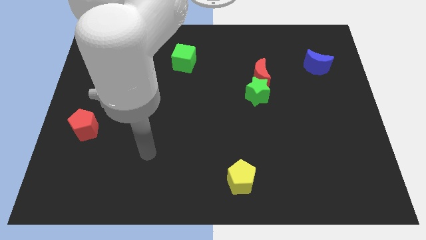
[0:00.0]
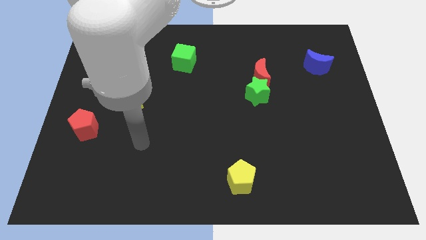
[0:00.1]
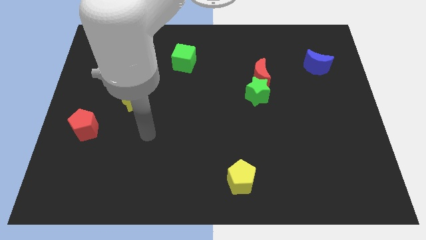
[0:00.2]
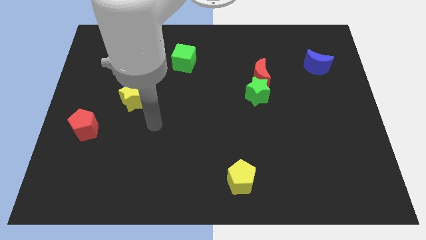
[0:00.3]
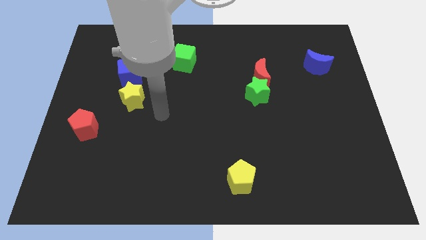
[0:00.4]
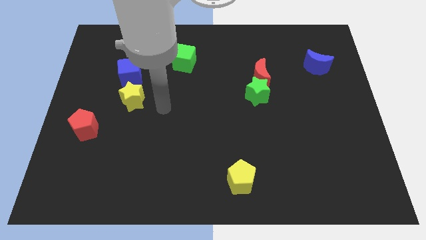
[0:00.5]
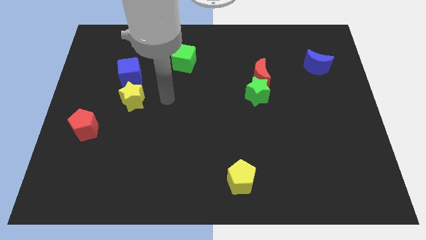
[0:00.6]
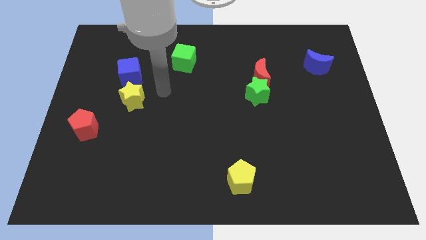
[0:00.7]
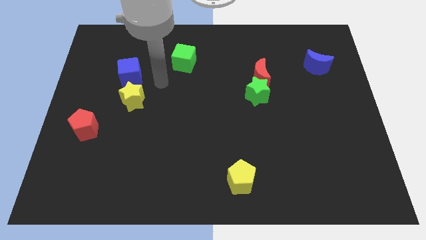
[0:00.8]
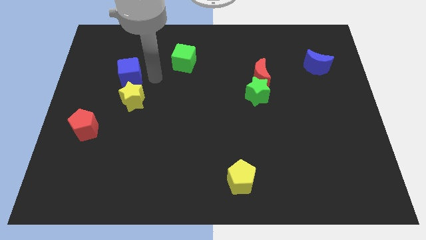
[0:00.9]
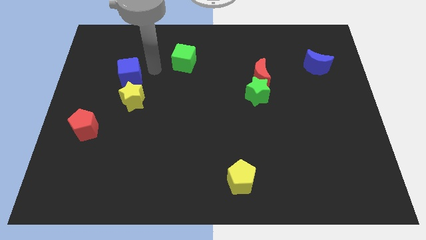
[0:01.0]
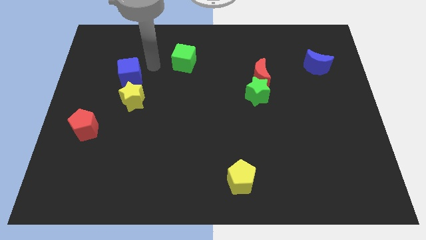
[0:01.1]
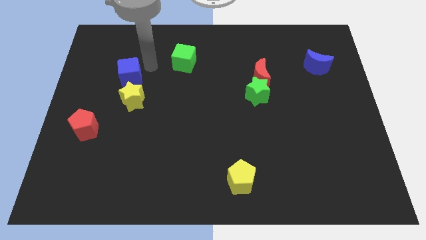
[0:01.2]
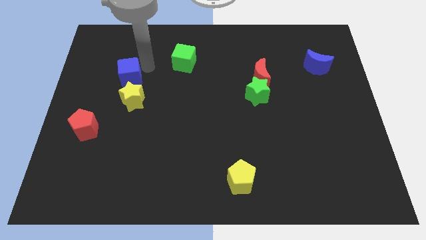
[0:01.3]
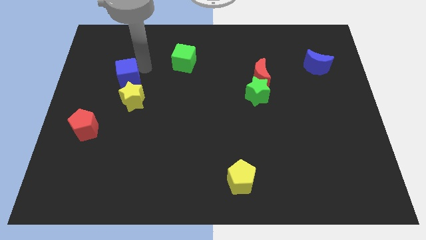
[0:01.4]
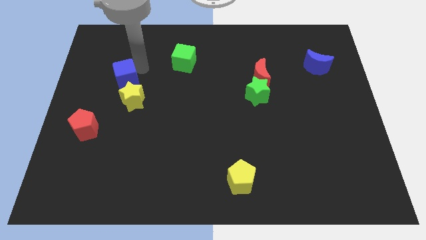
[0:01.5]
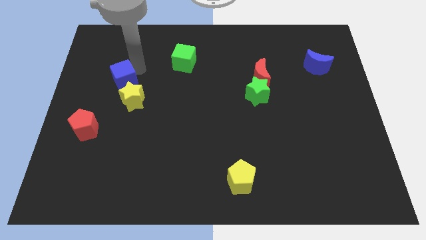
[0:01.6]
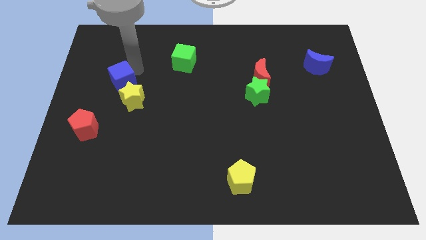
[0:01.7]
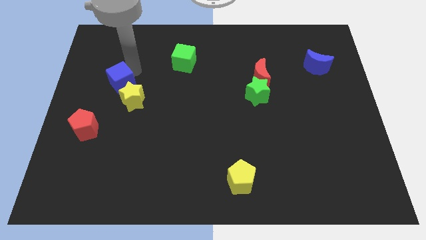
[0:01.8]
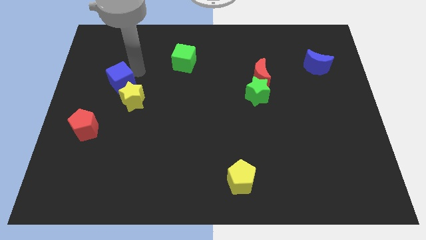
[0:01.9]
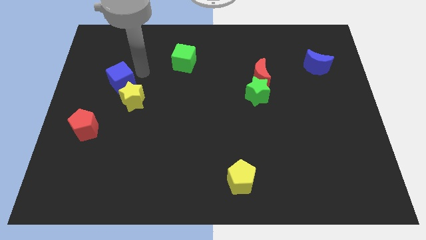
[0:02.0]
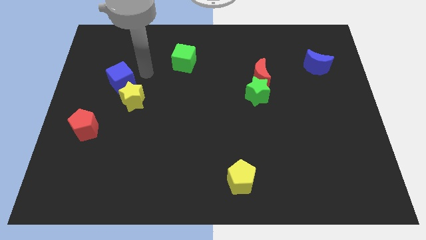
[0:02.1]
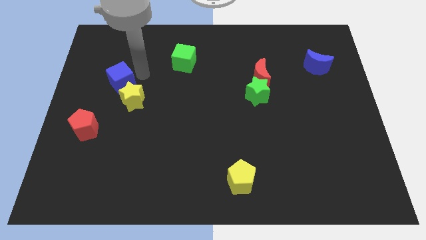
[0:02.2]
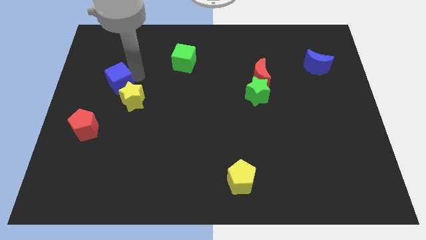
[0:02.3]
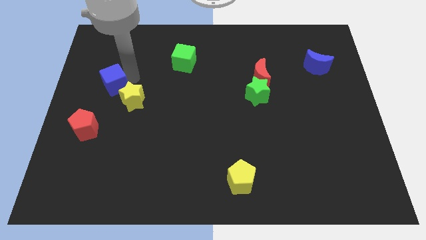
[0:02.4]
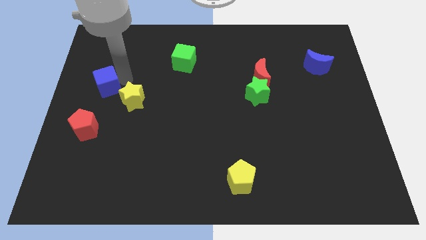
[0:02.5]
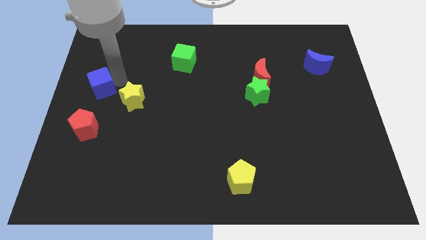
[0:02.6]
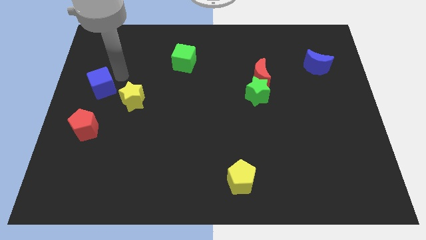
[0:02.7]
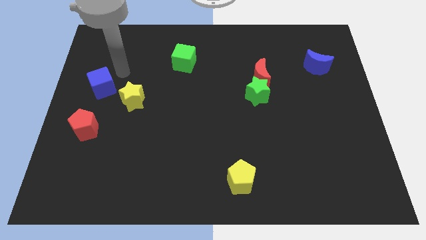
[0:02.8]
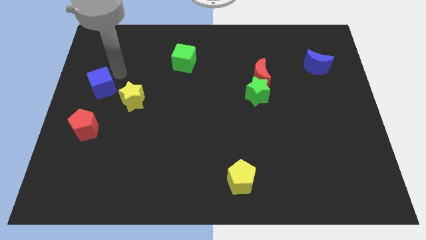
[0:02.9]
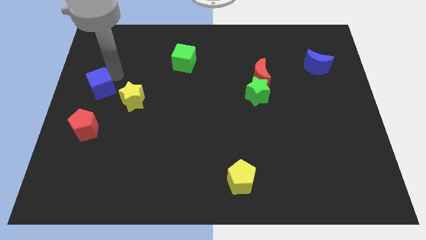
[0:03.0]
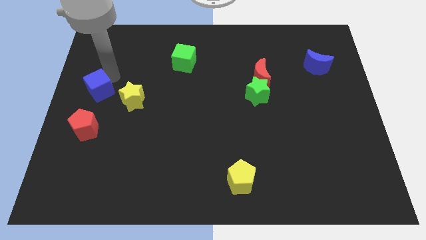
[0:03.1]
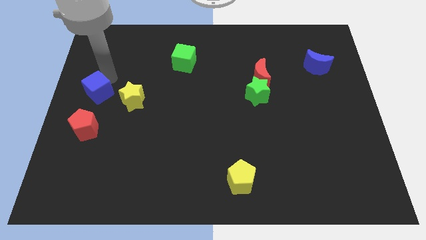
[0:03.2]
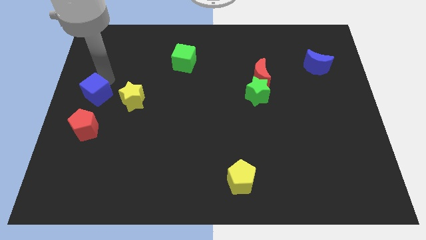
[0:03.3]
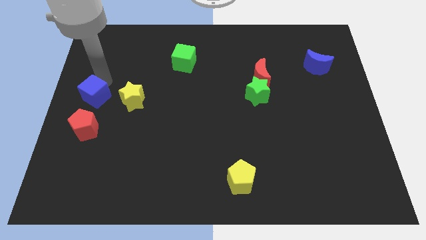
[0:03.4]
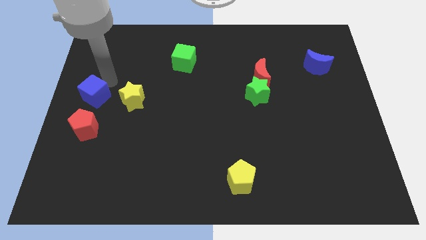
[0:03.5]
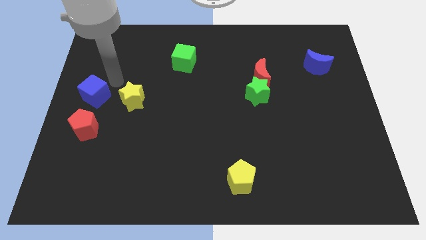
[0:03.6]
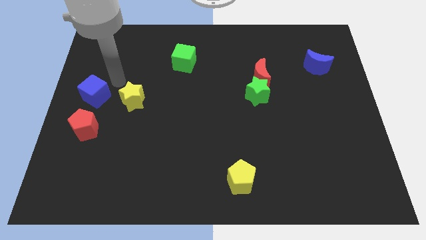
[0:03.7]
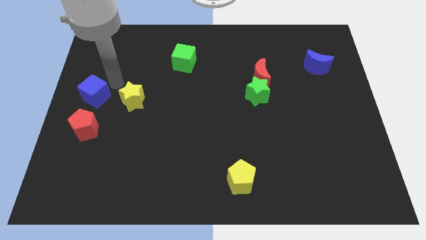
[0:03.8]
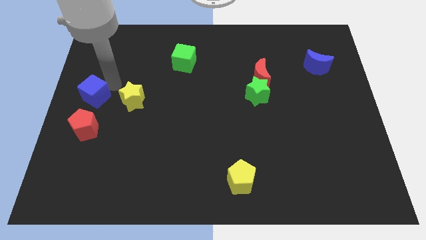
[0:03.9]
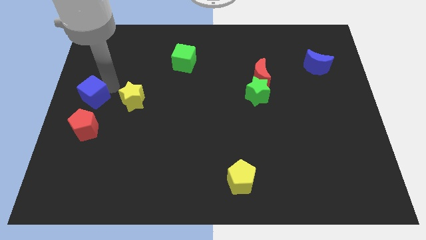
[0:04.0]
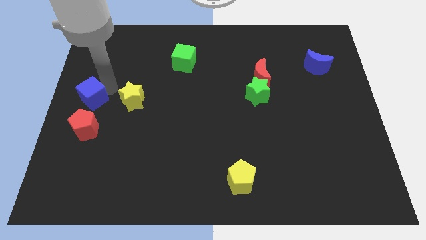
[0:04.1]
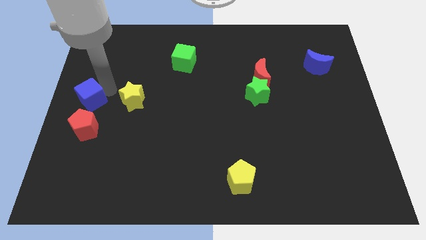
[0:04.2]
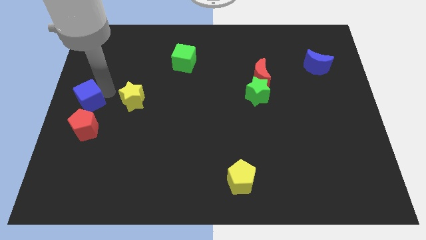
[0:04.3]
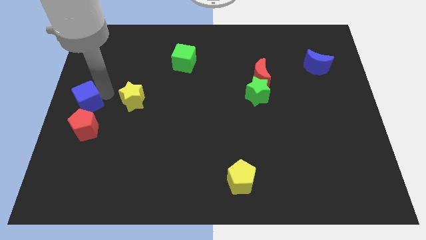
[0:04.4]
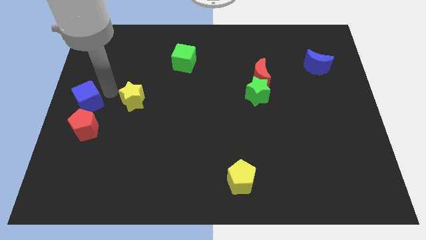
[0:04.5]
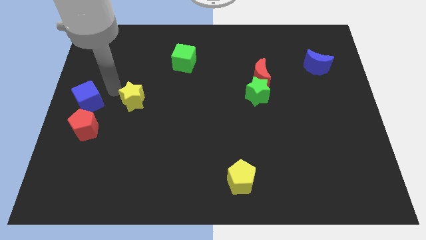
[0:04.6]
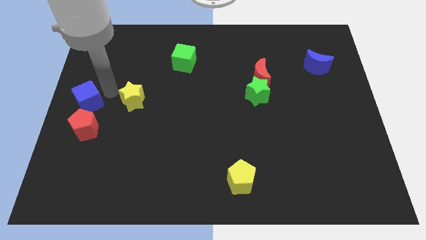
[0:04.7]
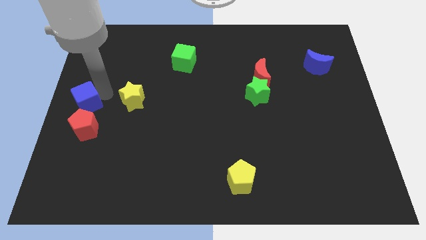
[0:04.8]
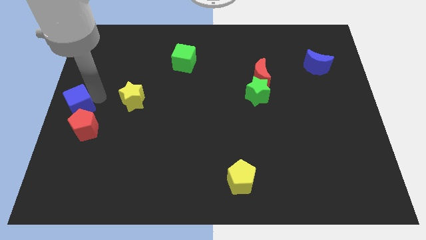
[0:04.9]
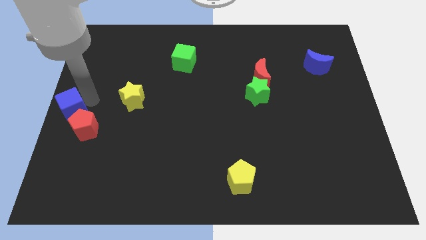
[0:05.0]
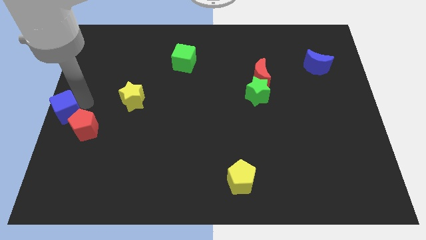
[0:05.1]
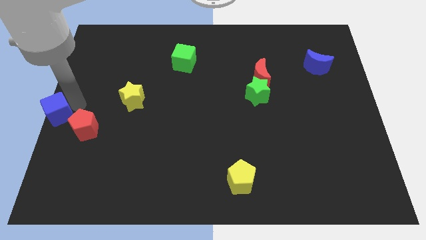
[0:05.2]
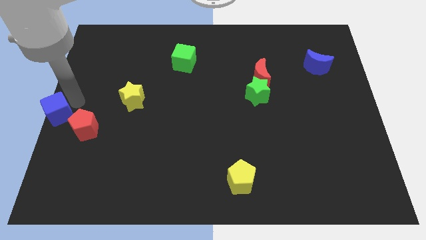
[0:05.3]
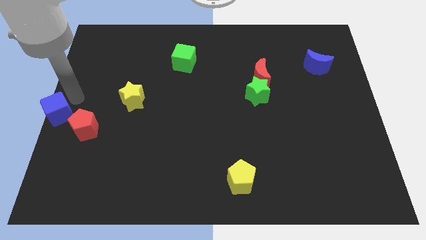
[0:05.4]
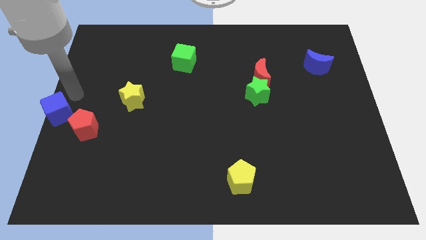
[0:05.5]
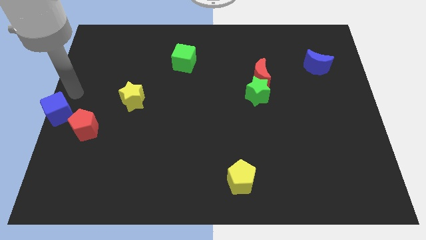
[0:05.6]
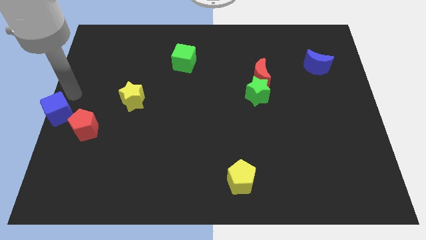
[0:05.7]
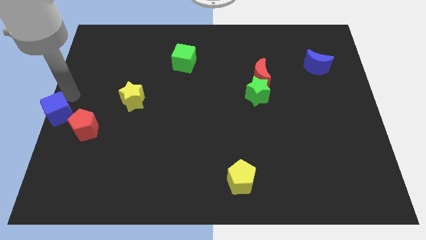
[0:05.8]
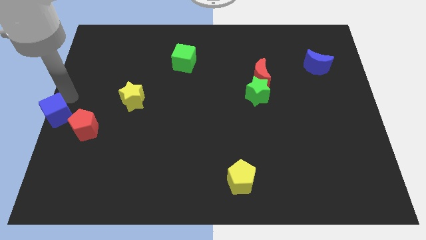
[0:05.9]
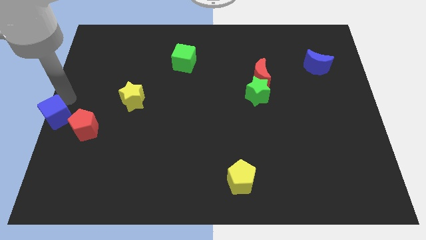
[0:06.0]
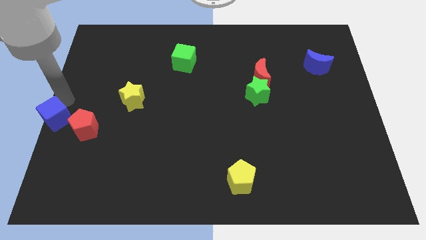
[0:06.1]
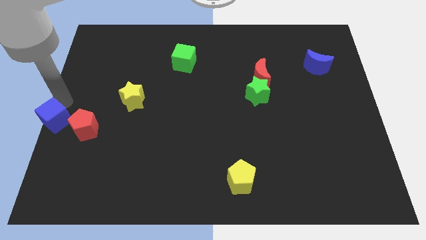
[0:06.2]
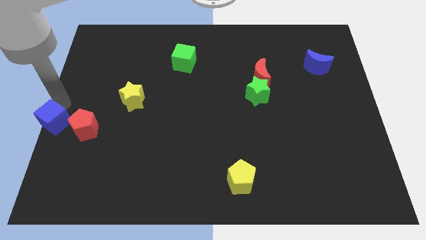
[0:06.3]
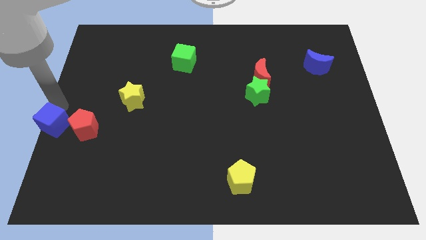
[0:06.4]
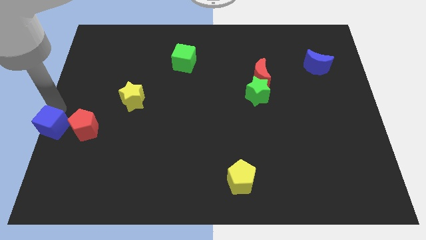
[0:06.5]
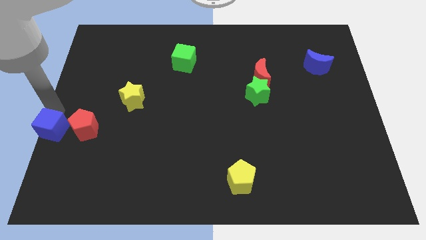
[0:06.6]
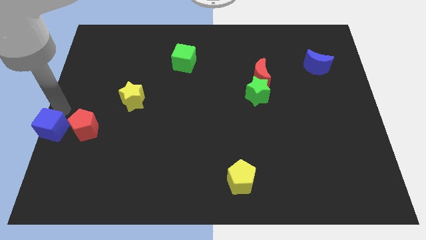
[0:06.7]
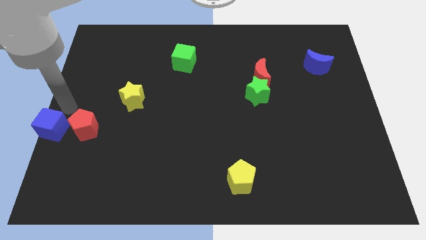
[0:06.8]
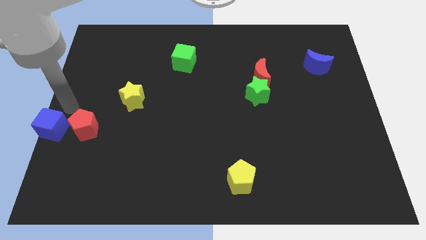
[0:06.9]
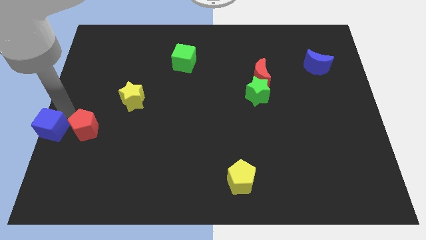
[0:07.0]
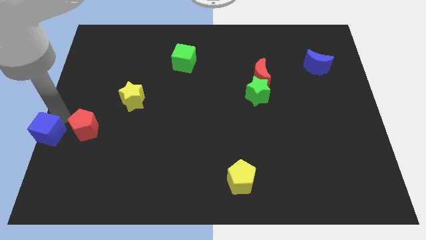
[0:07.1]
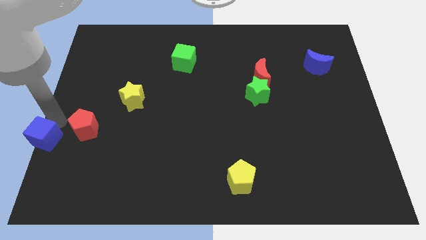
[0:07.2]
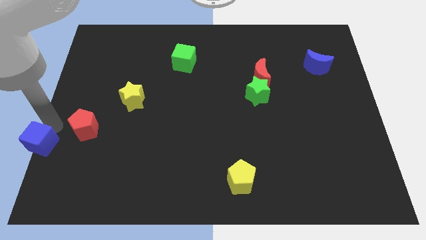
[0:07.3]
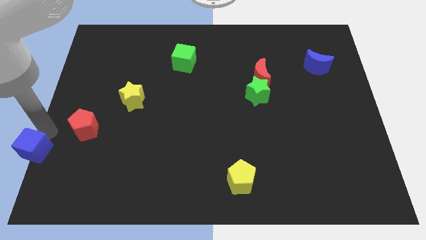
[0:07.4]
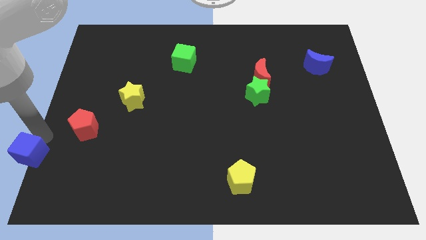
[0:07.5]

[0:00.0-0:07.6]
move the blue cube to the bottom left corner
